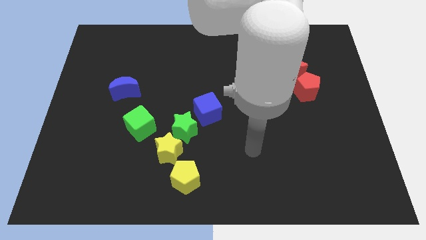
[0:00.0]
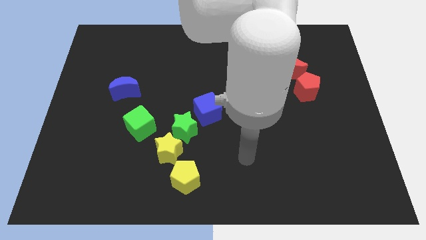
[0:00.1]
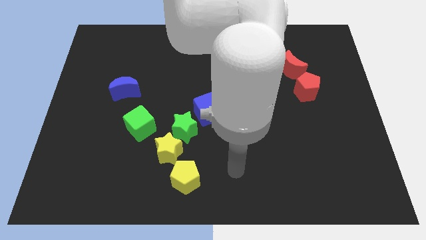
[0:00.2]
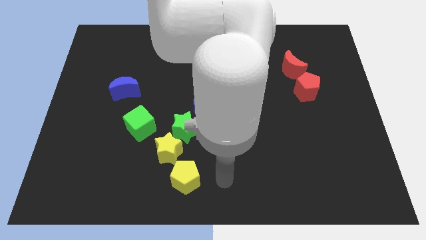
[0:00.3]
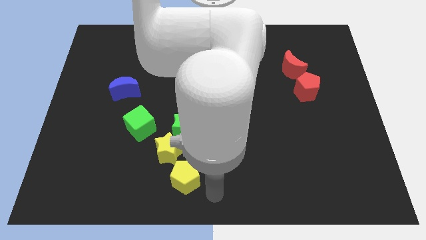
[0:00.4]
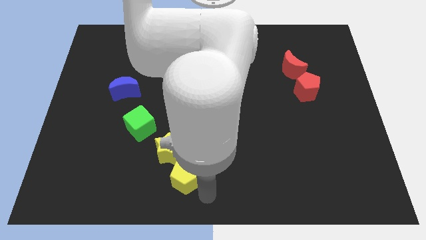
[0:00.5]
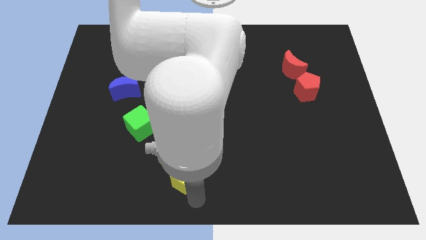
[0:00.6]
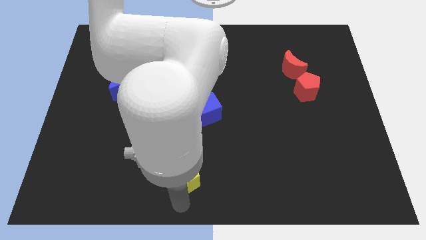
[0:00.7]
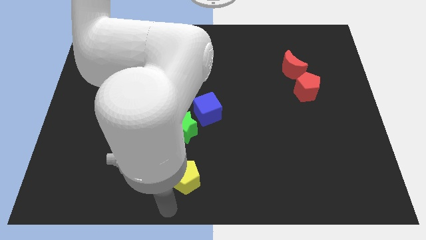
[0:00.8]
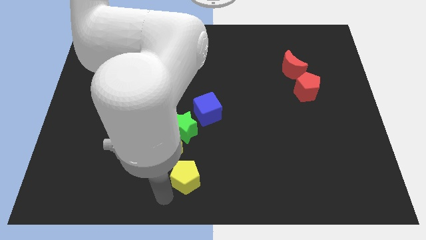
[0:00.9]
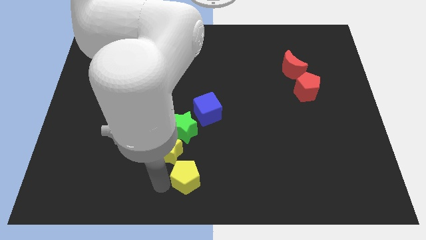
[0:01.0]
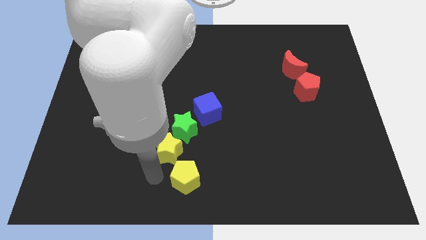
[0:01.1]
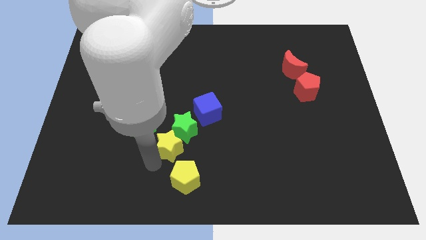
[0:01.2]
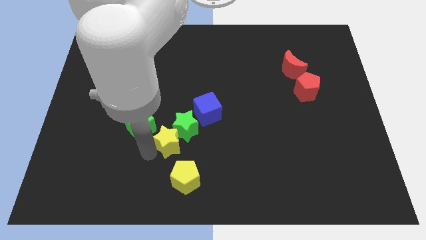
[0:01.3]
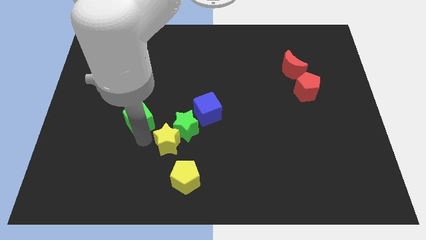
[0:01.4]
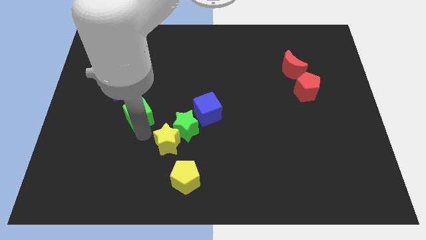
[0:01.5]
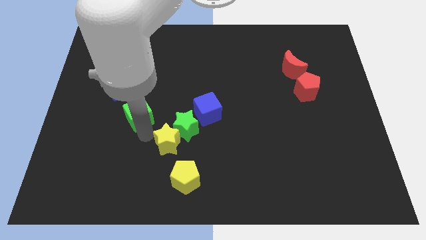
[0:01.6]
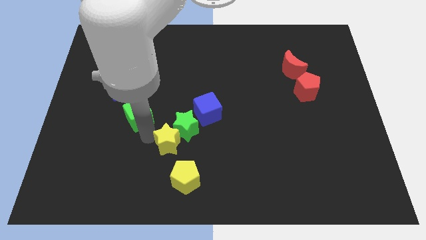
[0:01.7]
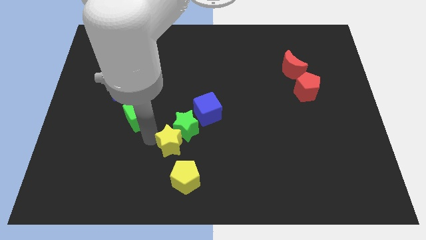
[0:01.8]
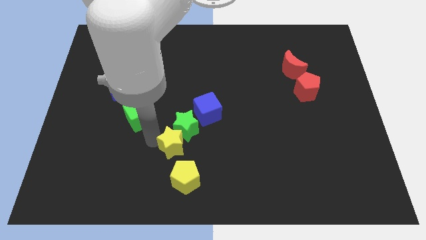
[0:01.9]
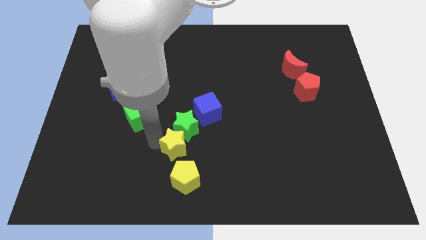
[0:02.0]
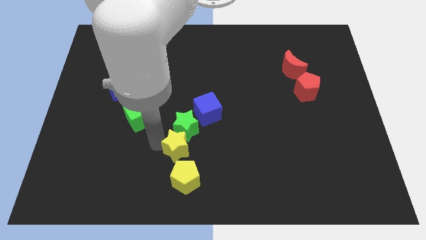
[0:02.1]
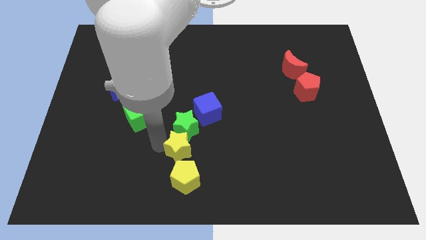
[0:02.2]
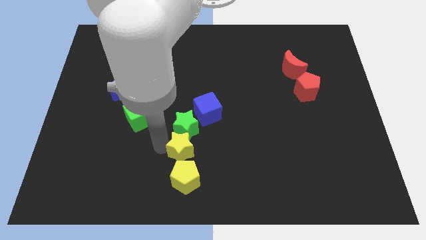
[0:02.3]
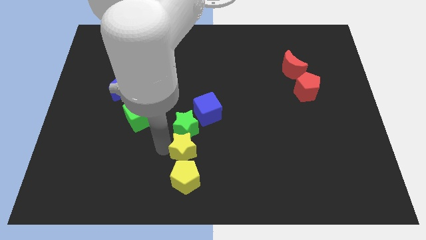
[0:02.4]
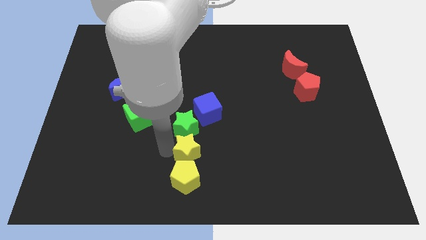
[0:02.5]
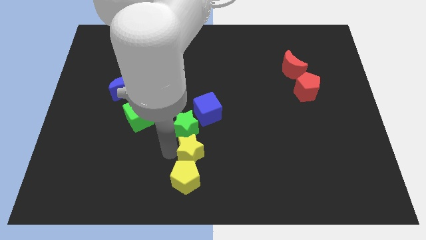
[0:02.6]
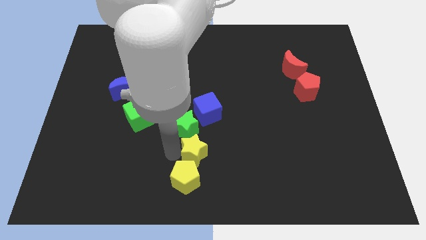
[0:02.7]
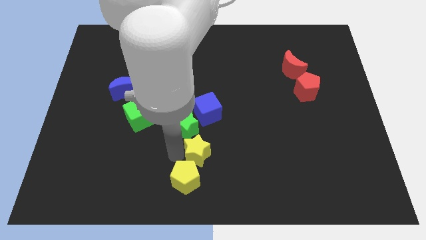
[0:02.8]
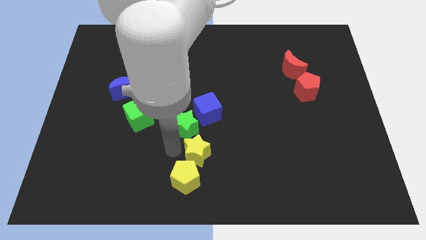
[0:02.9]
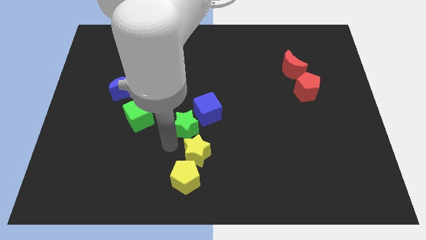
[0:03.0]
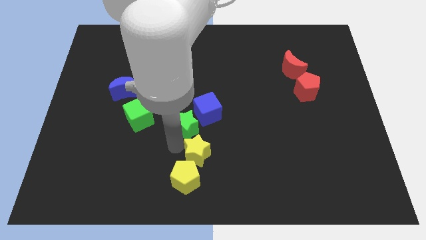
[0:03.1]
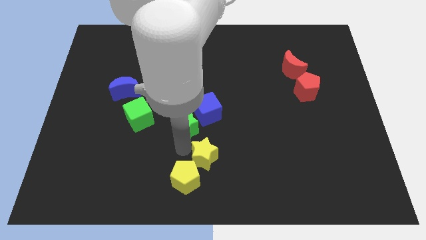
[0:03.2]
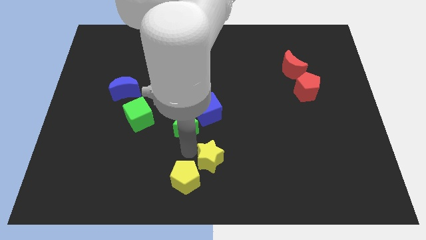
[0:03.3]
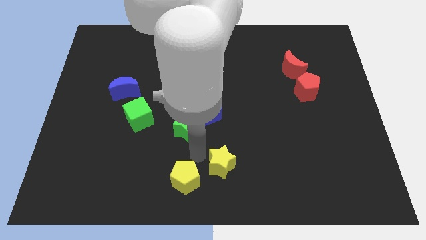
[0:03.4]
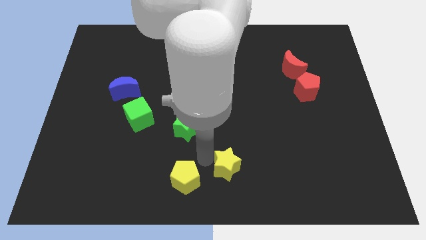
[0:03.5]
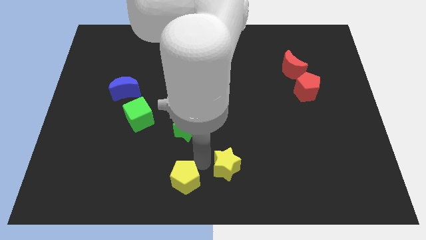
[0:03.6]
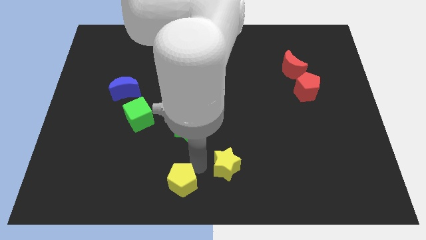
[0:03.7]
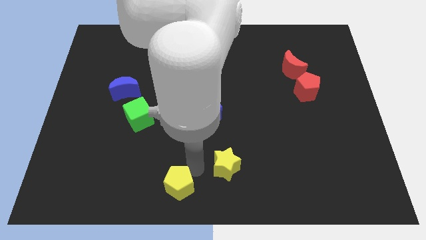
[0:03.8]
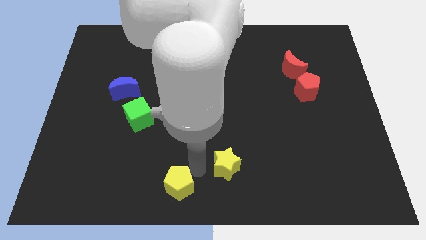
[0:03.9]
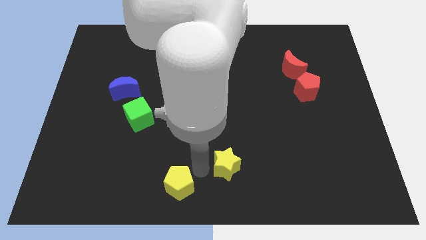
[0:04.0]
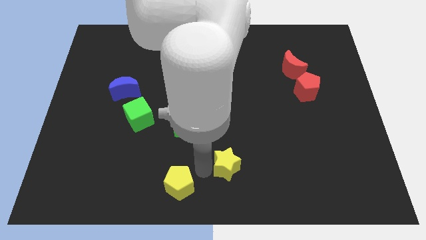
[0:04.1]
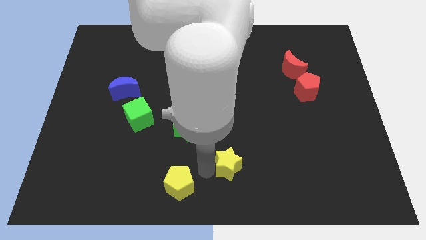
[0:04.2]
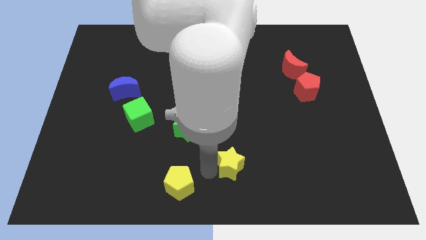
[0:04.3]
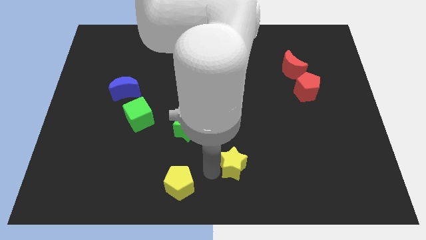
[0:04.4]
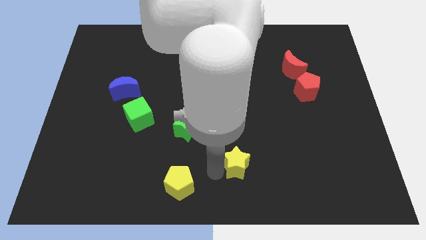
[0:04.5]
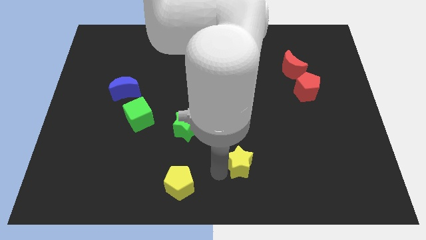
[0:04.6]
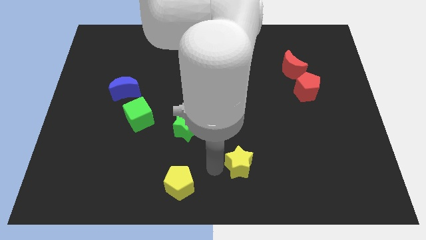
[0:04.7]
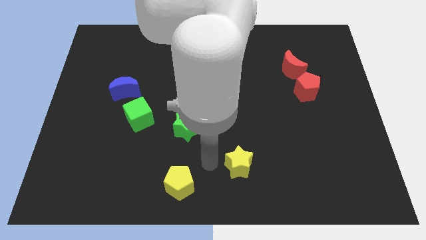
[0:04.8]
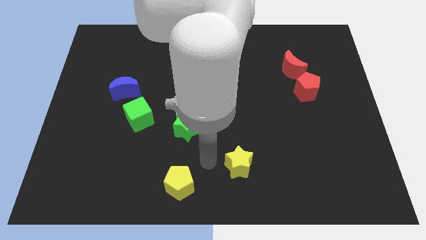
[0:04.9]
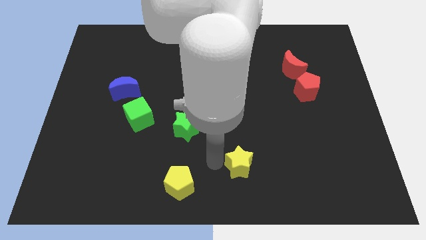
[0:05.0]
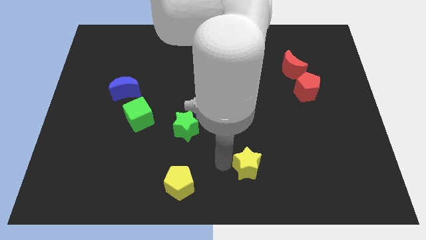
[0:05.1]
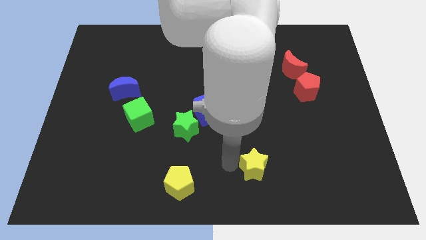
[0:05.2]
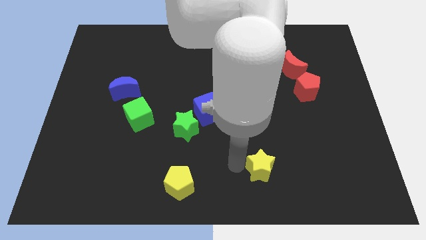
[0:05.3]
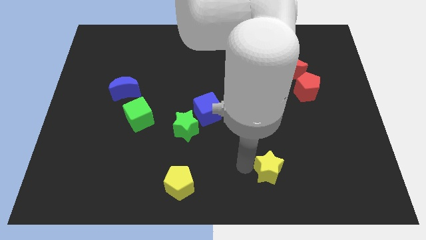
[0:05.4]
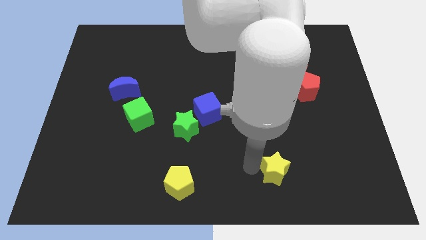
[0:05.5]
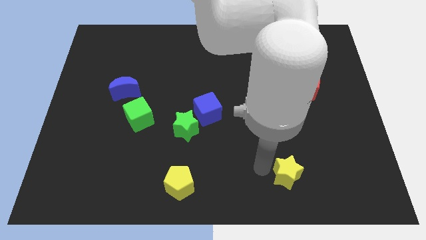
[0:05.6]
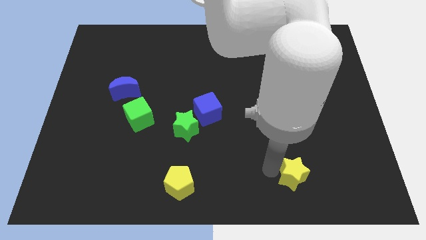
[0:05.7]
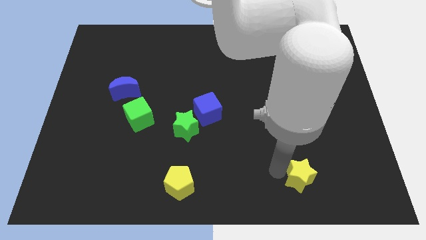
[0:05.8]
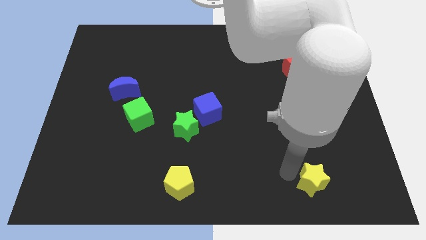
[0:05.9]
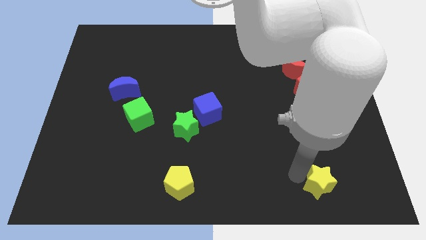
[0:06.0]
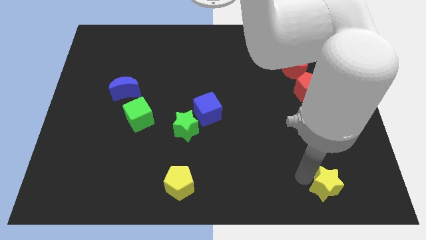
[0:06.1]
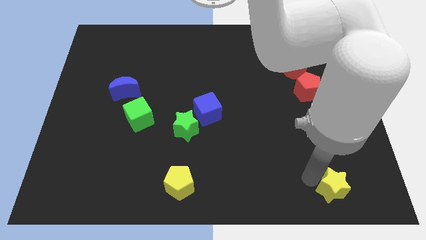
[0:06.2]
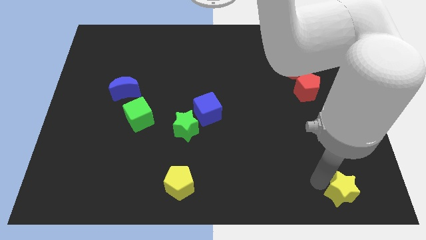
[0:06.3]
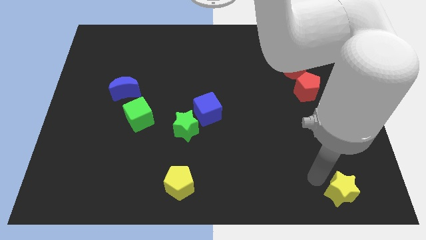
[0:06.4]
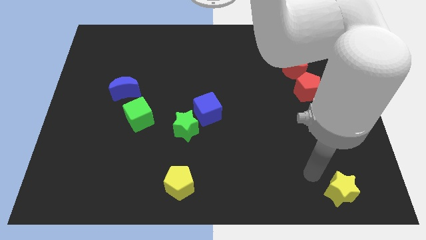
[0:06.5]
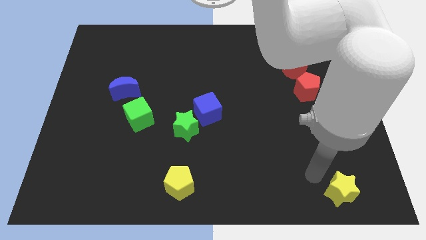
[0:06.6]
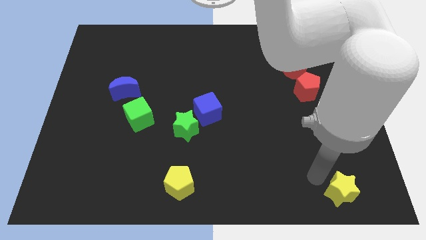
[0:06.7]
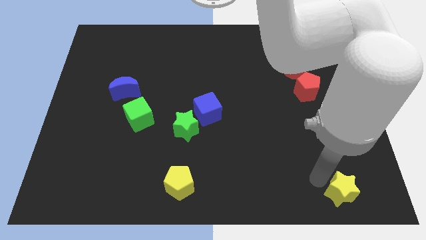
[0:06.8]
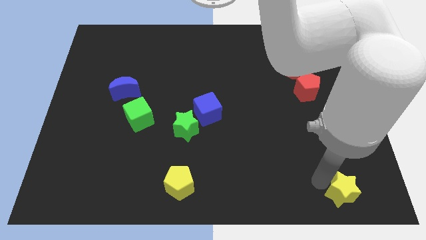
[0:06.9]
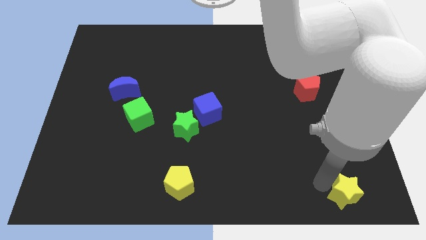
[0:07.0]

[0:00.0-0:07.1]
put the yellow star to the bottom right
